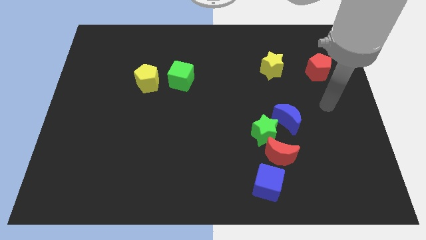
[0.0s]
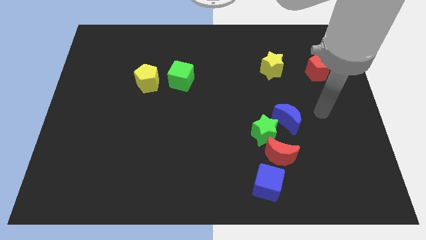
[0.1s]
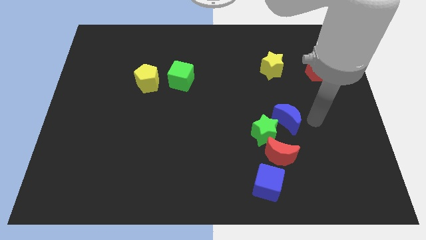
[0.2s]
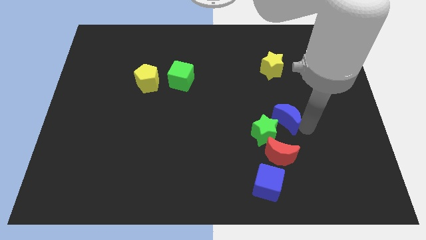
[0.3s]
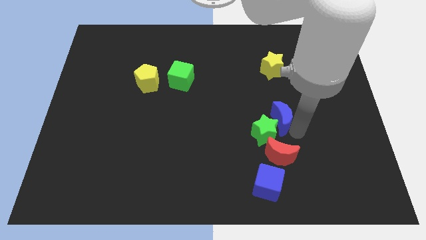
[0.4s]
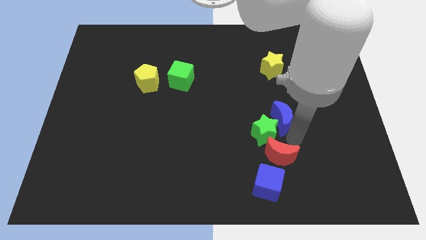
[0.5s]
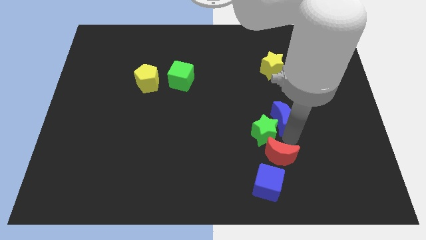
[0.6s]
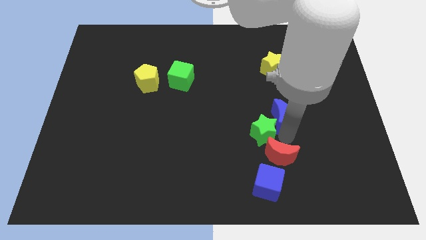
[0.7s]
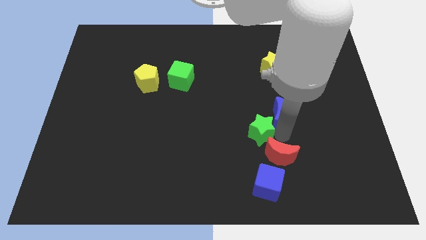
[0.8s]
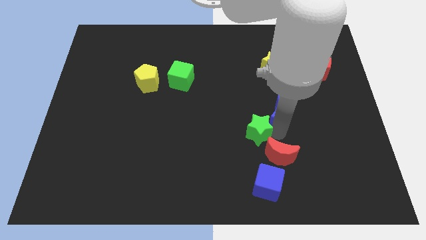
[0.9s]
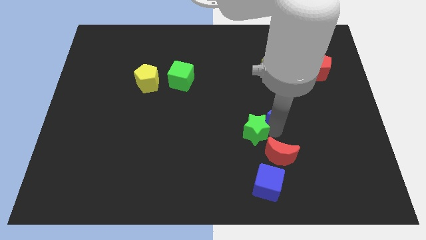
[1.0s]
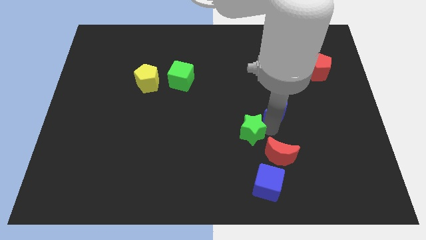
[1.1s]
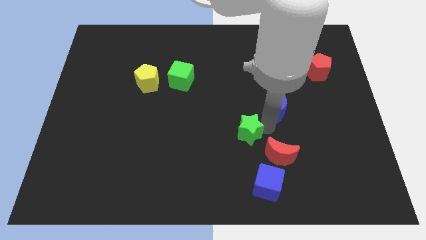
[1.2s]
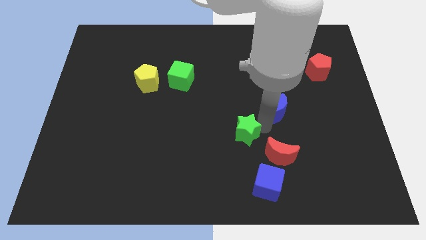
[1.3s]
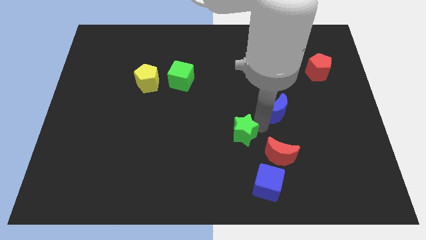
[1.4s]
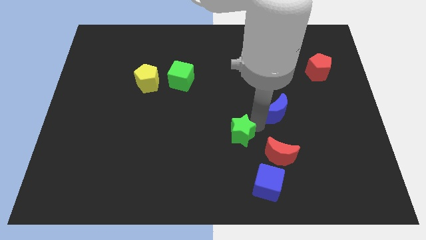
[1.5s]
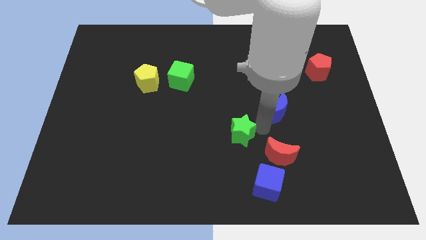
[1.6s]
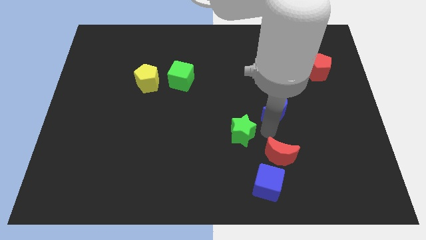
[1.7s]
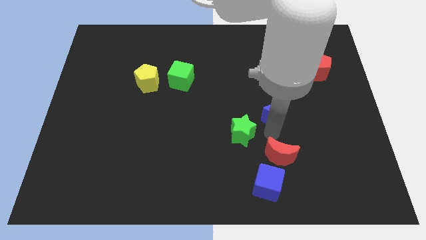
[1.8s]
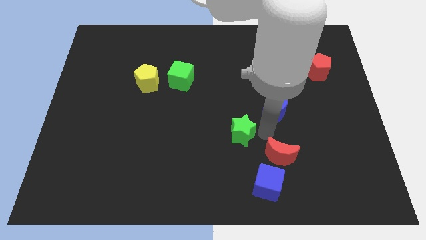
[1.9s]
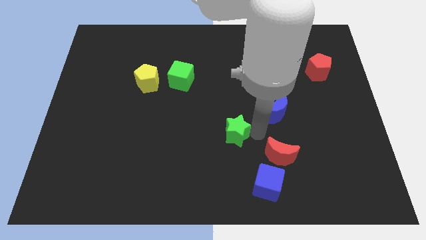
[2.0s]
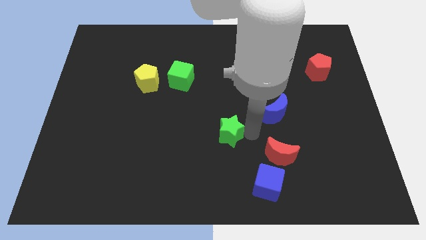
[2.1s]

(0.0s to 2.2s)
pull the green star apart from the red moon and blue moon

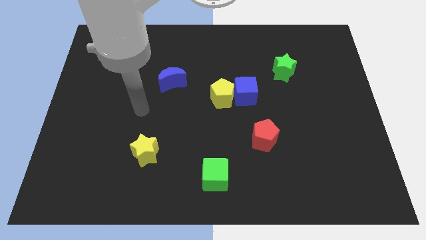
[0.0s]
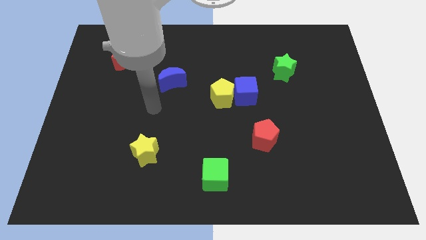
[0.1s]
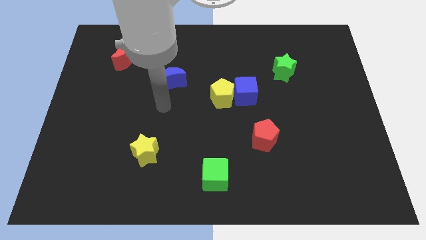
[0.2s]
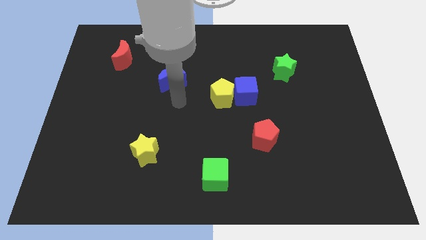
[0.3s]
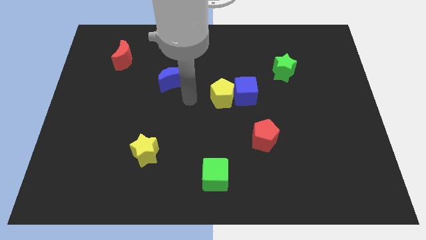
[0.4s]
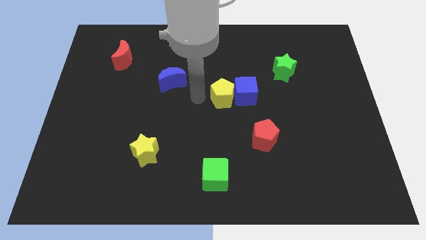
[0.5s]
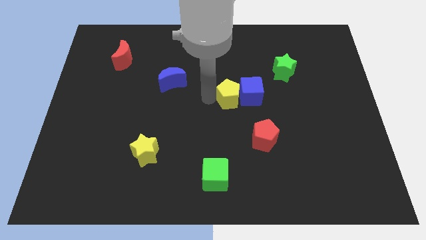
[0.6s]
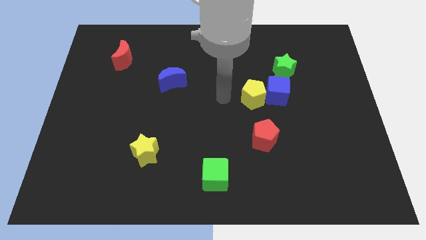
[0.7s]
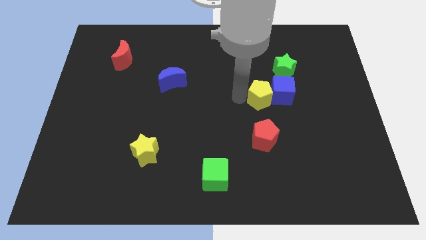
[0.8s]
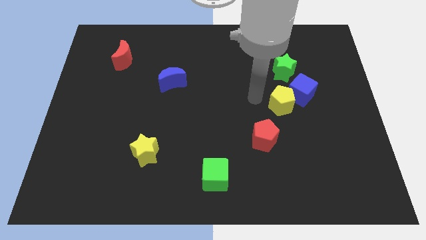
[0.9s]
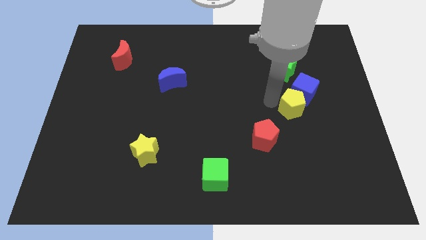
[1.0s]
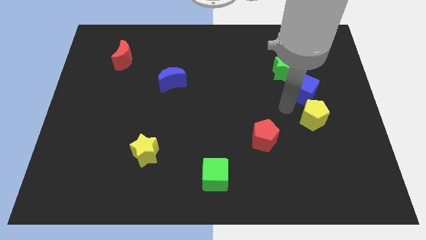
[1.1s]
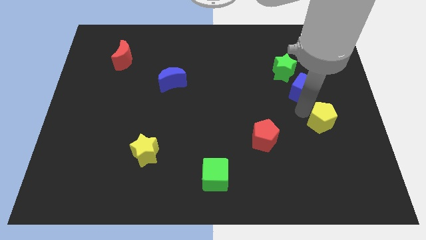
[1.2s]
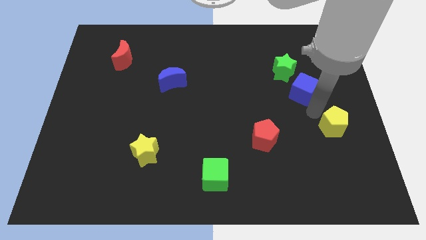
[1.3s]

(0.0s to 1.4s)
move the blue cube away from the yellow pentagon

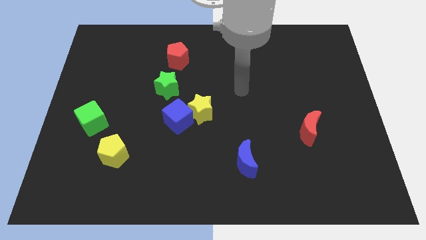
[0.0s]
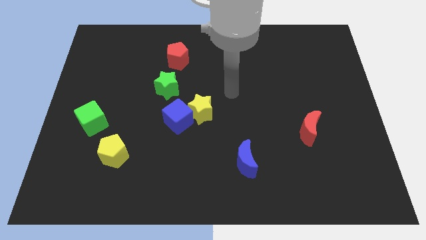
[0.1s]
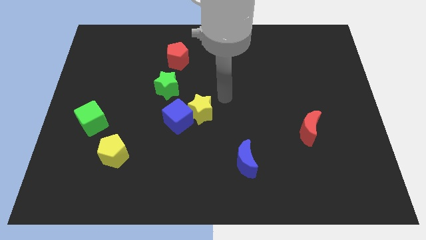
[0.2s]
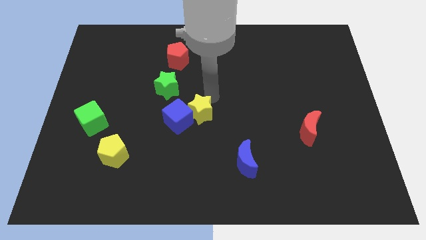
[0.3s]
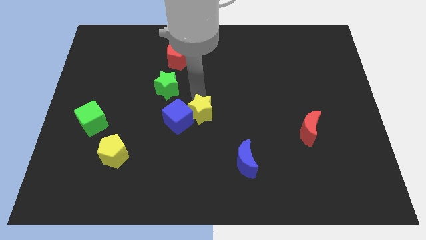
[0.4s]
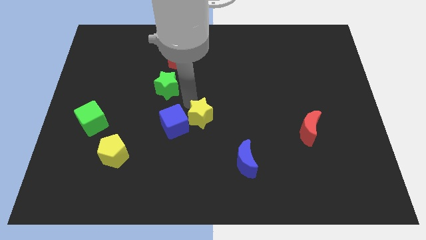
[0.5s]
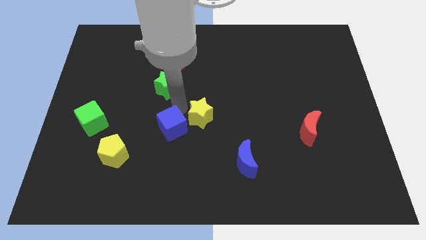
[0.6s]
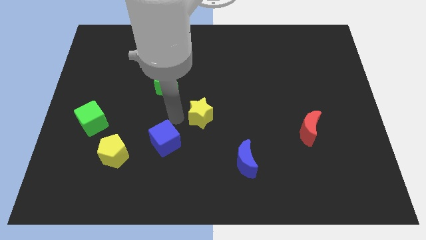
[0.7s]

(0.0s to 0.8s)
pull the yellow star apart from the blue cube

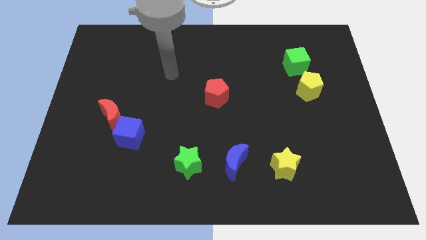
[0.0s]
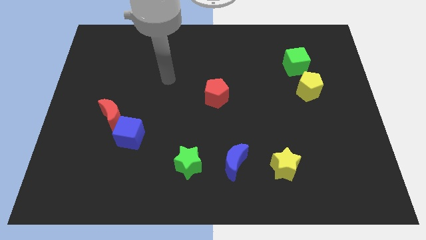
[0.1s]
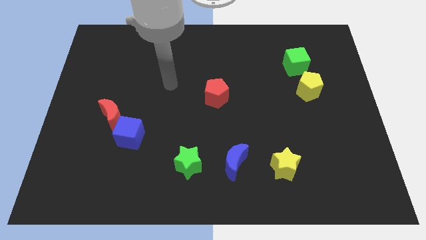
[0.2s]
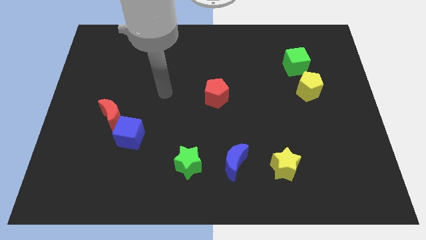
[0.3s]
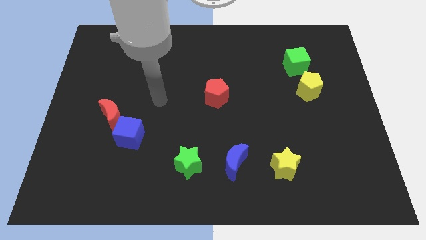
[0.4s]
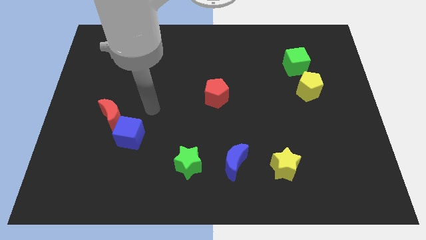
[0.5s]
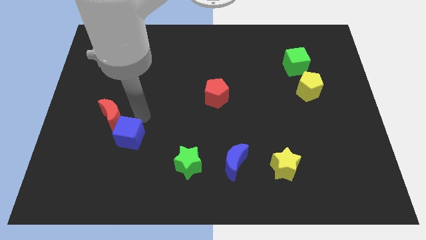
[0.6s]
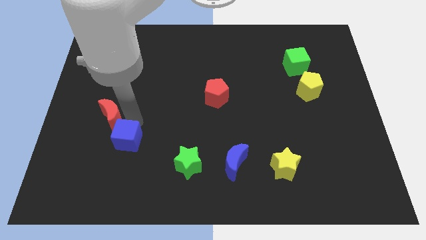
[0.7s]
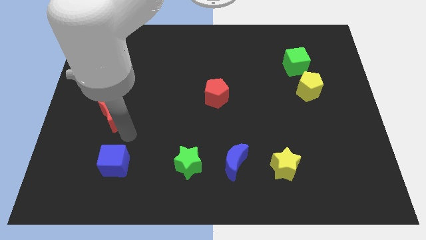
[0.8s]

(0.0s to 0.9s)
separate the red moon from the blue cube

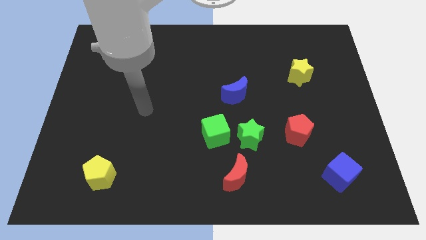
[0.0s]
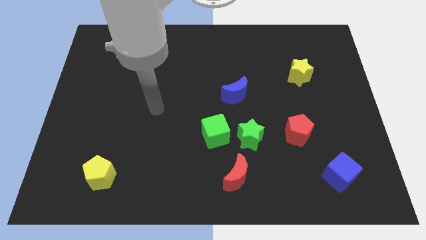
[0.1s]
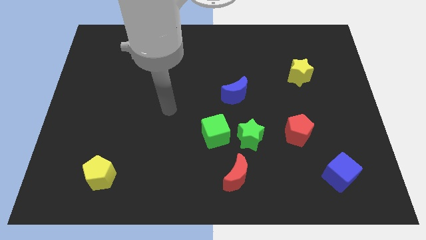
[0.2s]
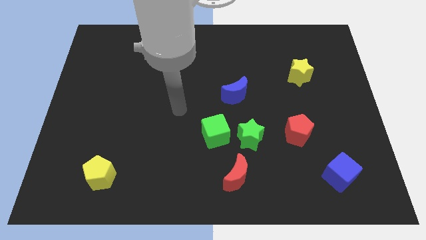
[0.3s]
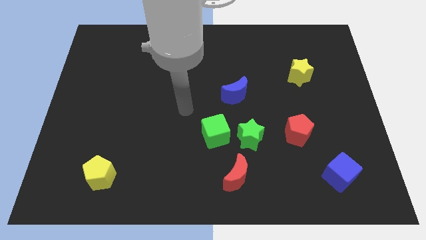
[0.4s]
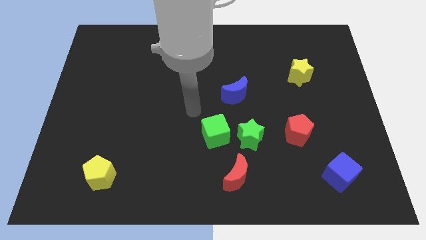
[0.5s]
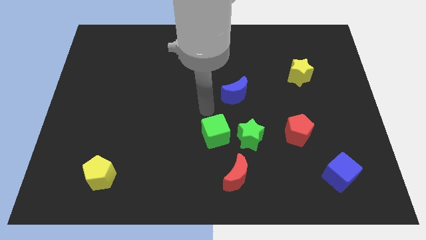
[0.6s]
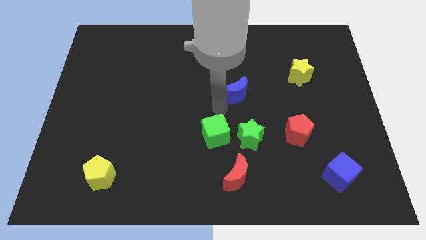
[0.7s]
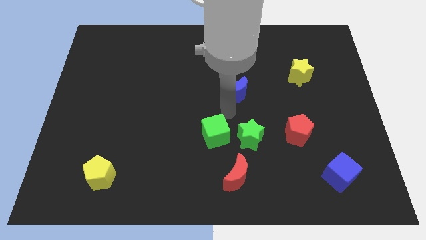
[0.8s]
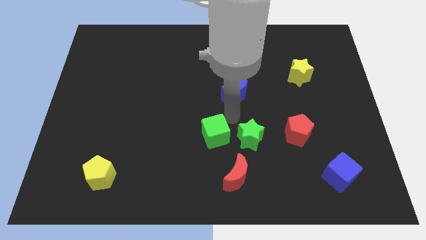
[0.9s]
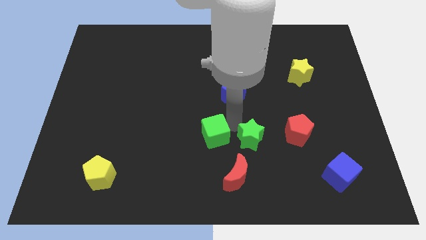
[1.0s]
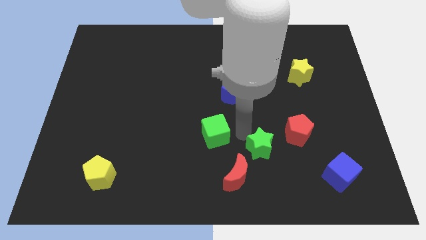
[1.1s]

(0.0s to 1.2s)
pull the green cube apart from the green star

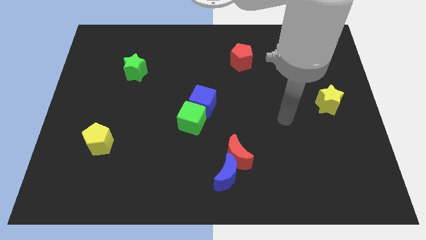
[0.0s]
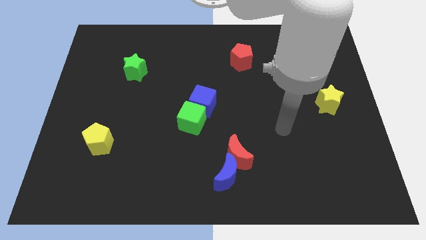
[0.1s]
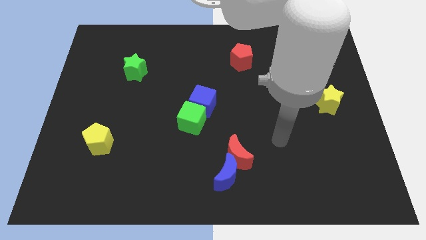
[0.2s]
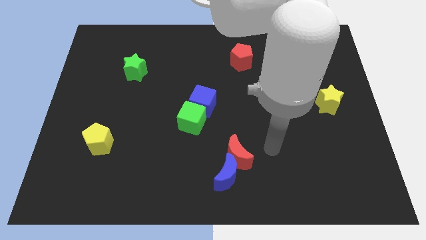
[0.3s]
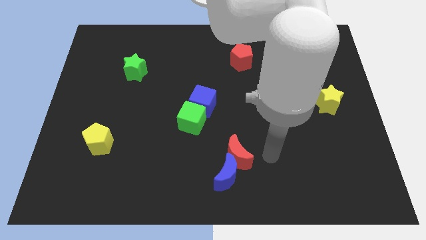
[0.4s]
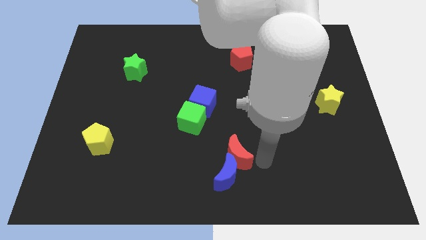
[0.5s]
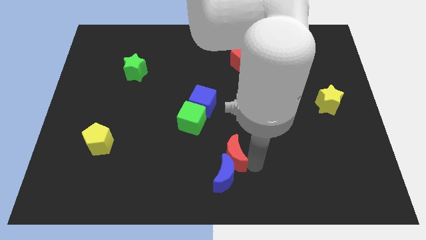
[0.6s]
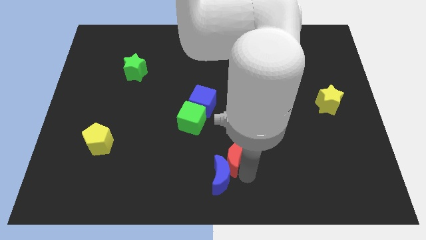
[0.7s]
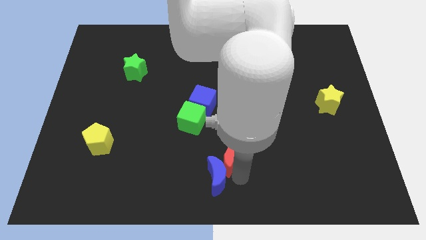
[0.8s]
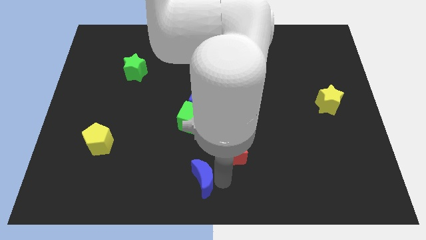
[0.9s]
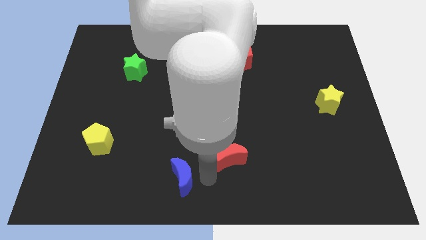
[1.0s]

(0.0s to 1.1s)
separate the red moon from the blue moon

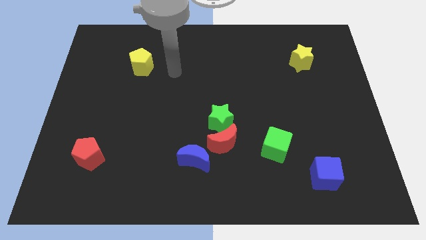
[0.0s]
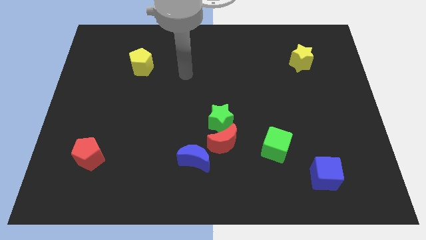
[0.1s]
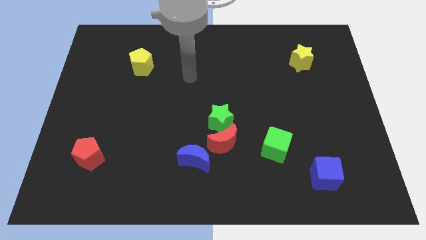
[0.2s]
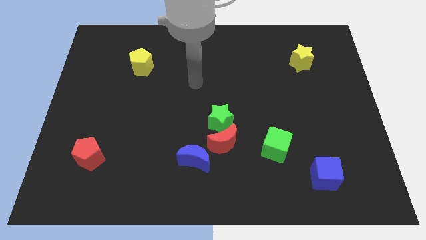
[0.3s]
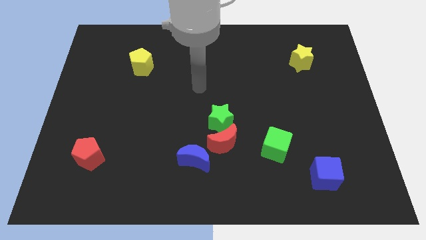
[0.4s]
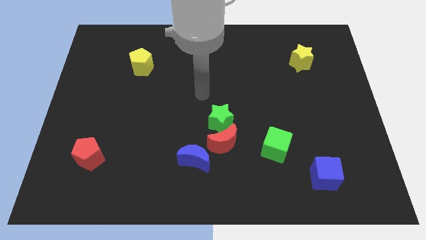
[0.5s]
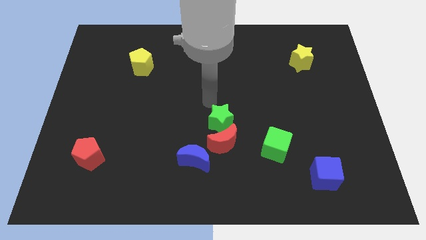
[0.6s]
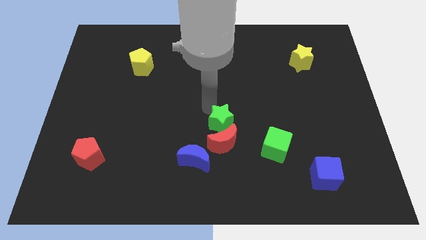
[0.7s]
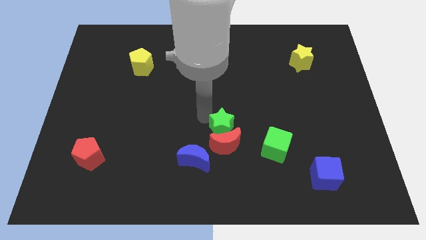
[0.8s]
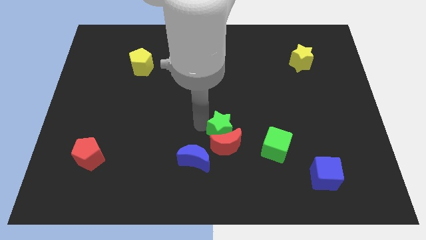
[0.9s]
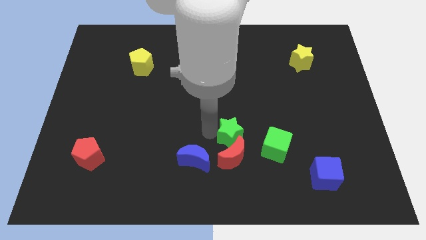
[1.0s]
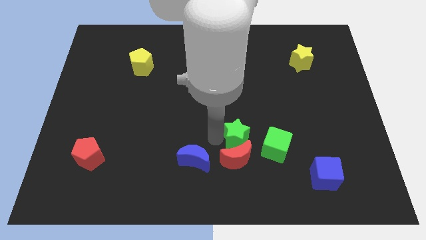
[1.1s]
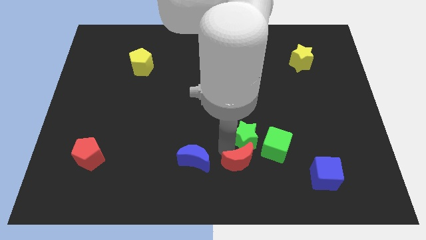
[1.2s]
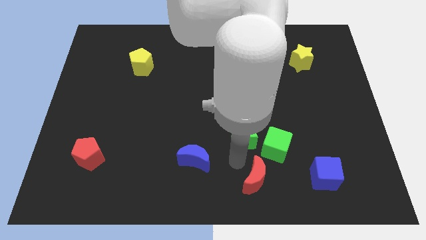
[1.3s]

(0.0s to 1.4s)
move the green star away from the red moon

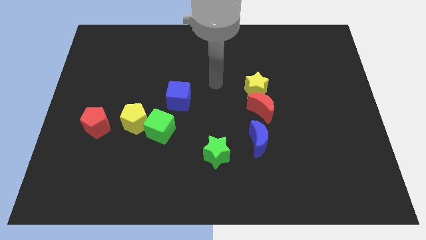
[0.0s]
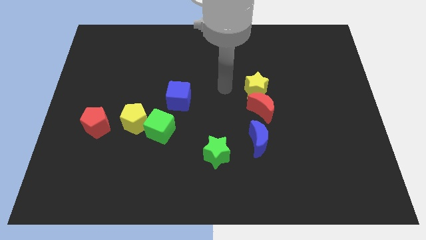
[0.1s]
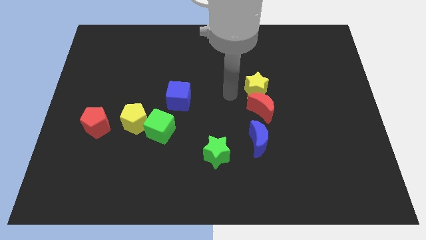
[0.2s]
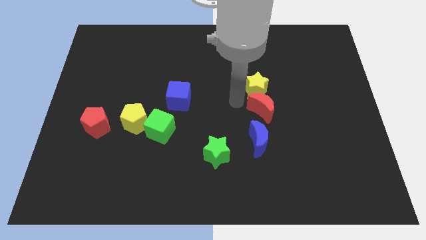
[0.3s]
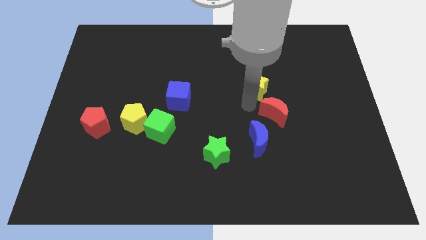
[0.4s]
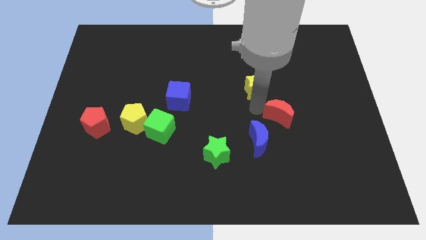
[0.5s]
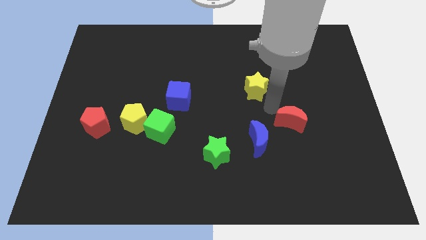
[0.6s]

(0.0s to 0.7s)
separate the yellow star from the red moon
